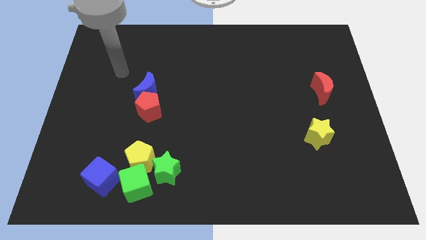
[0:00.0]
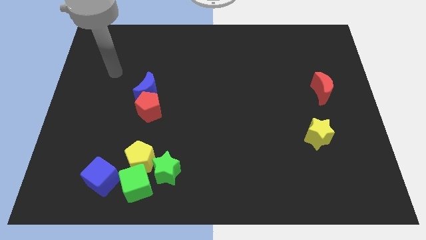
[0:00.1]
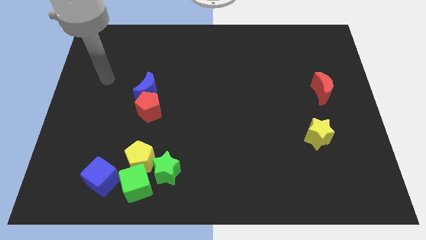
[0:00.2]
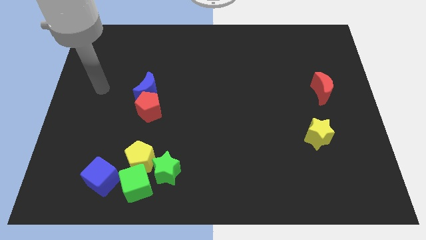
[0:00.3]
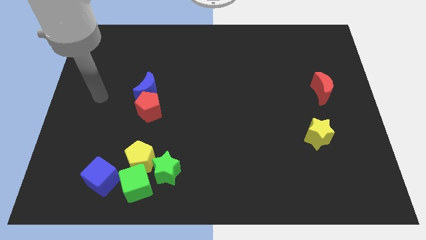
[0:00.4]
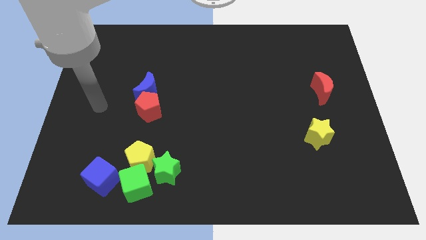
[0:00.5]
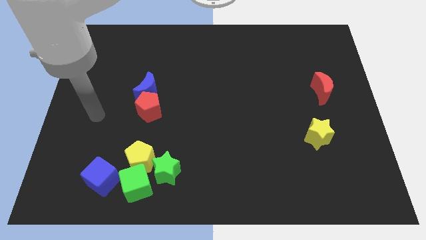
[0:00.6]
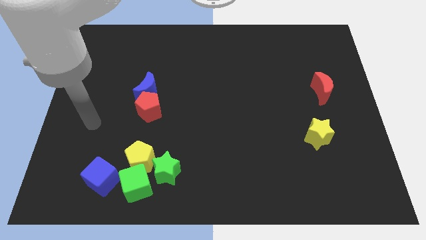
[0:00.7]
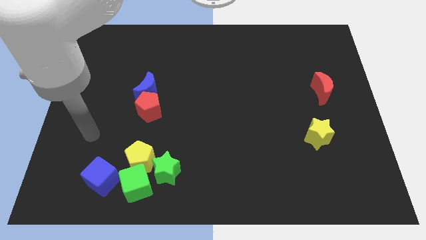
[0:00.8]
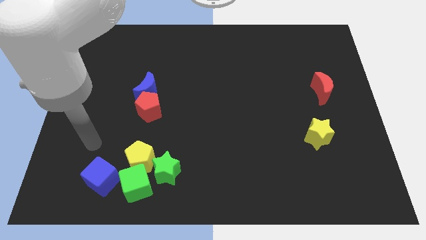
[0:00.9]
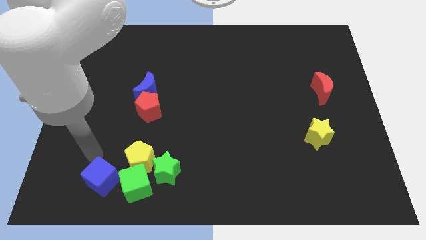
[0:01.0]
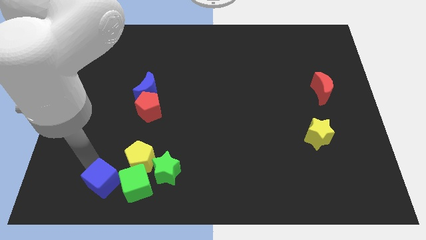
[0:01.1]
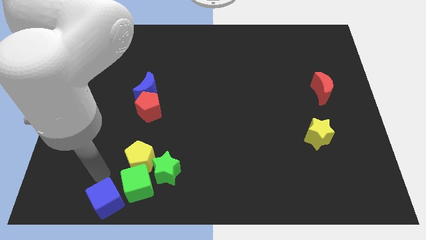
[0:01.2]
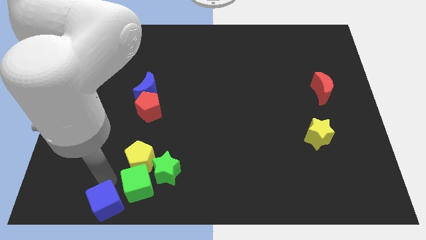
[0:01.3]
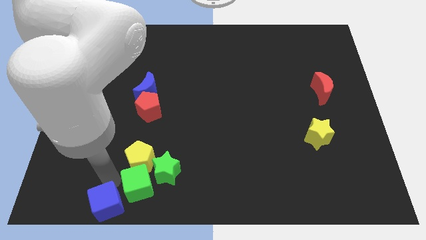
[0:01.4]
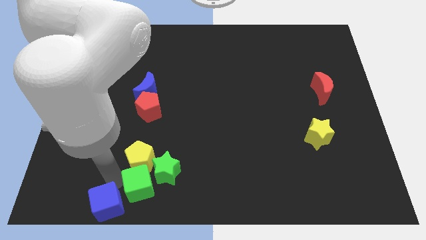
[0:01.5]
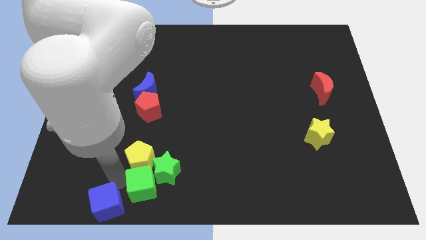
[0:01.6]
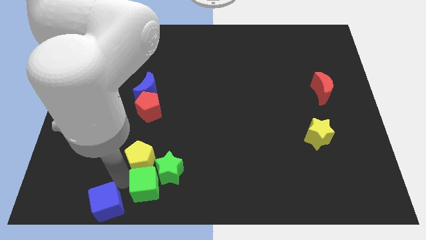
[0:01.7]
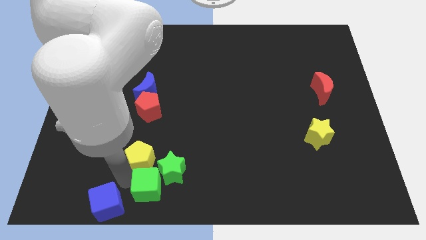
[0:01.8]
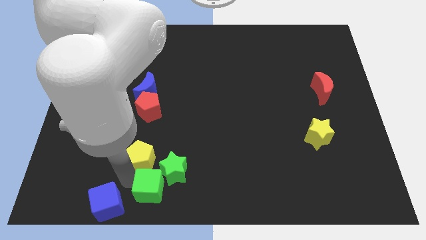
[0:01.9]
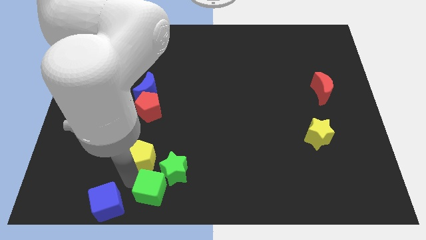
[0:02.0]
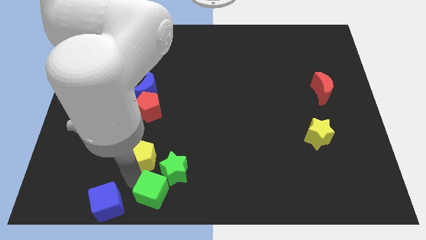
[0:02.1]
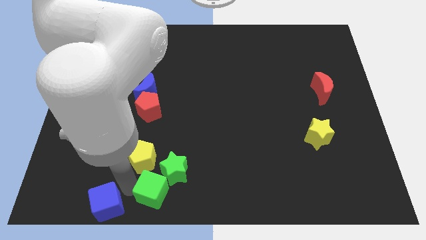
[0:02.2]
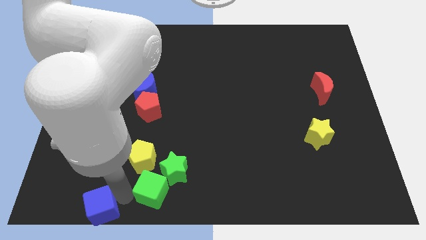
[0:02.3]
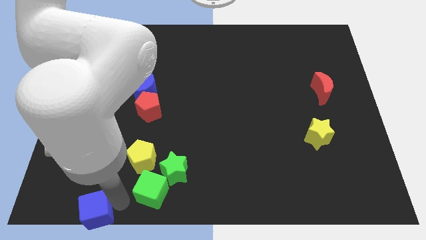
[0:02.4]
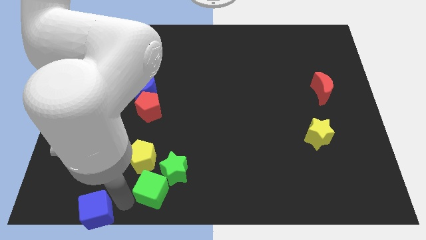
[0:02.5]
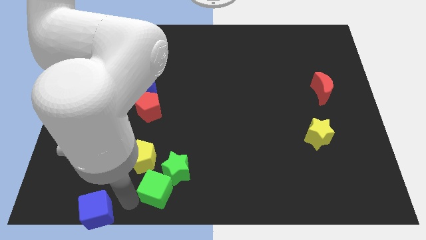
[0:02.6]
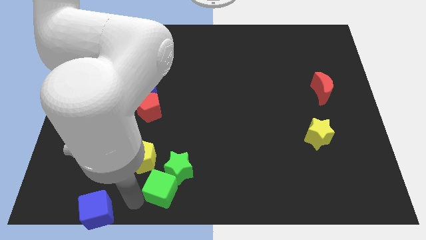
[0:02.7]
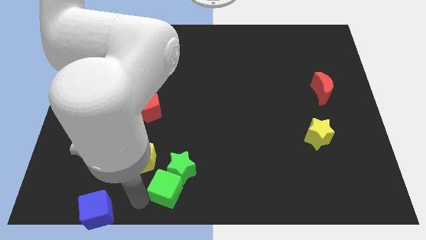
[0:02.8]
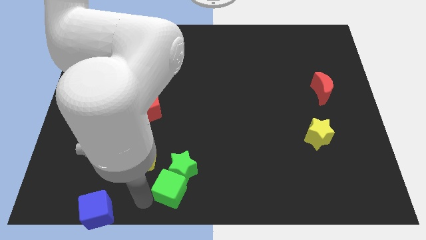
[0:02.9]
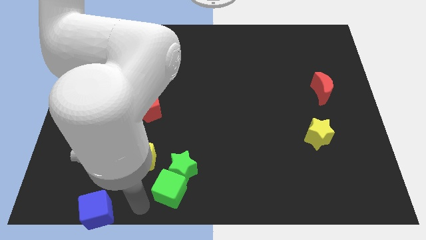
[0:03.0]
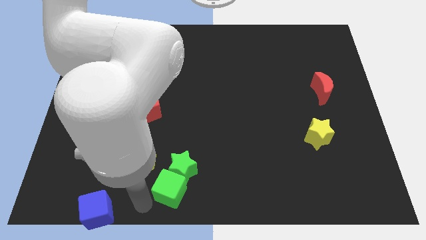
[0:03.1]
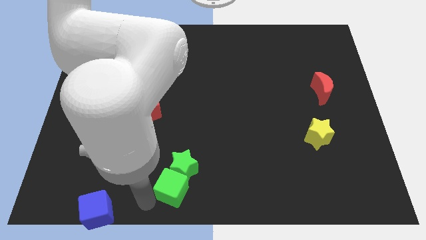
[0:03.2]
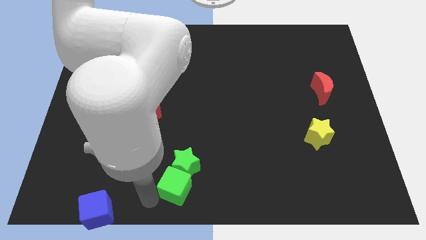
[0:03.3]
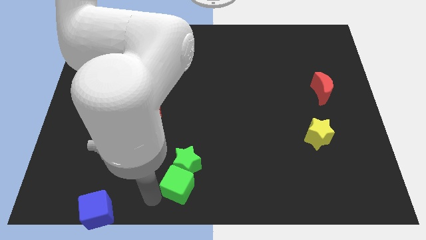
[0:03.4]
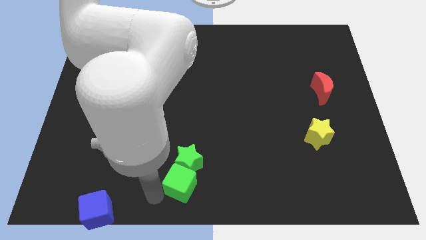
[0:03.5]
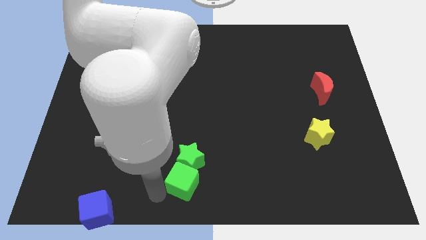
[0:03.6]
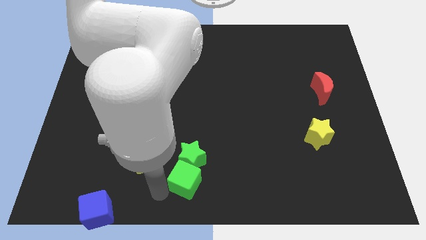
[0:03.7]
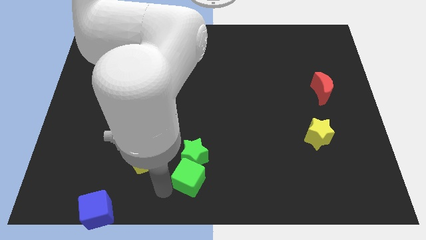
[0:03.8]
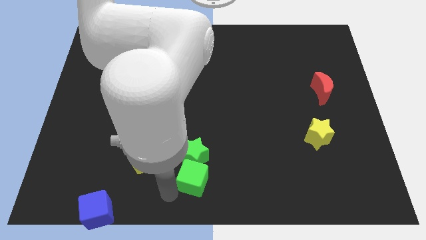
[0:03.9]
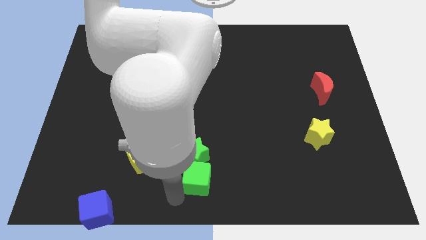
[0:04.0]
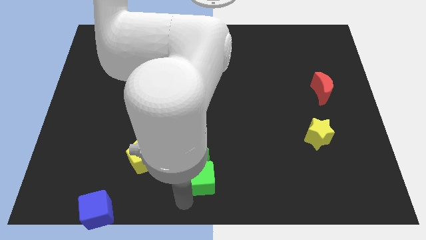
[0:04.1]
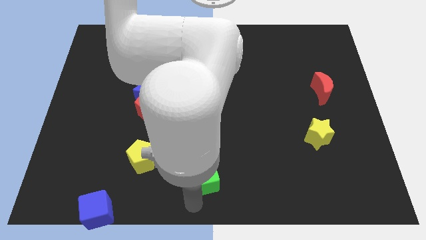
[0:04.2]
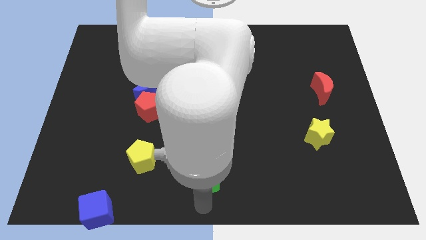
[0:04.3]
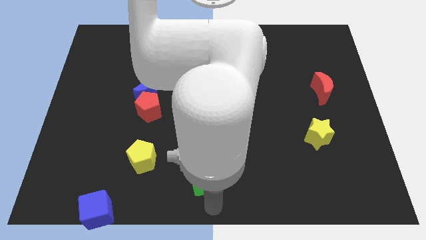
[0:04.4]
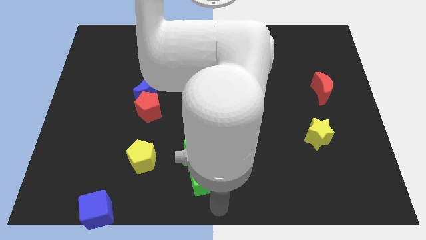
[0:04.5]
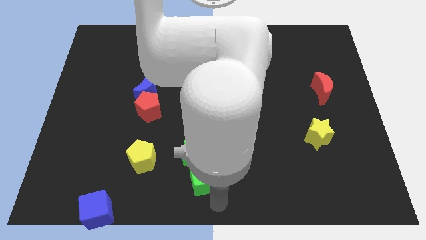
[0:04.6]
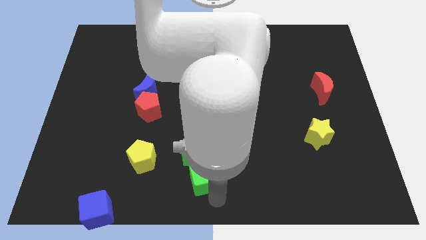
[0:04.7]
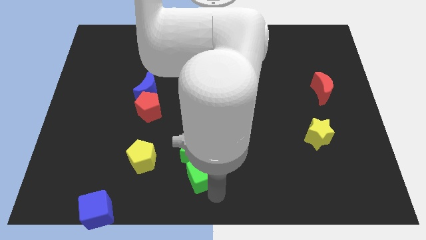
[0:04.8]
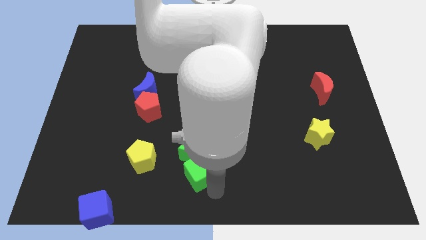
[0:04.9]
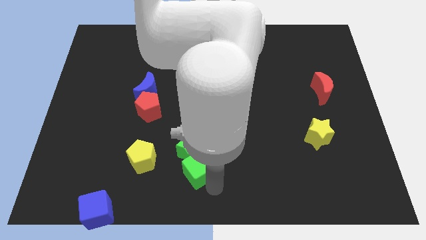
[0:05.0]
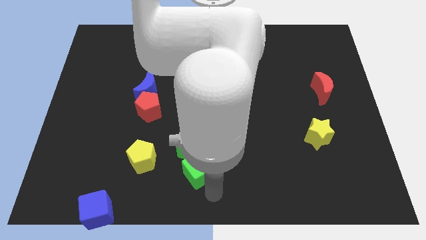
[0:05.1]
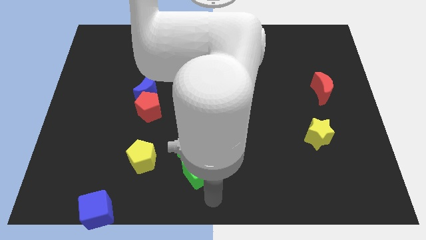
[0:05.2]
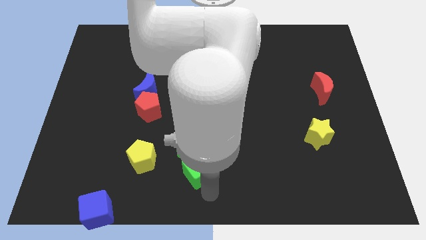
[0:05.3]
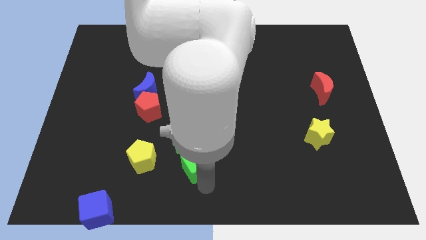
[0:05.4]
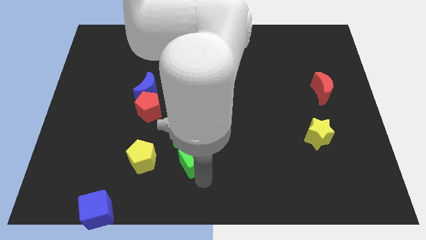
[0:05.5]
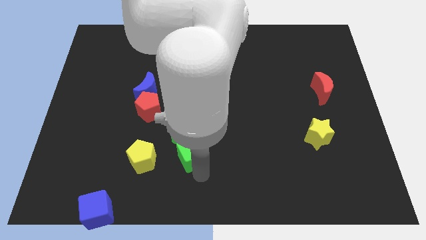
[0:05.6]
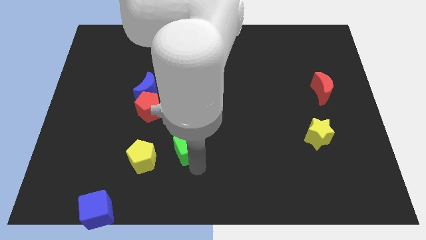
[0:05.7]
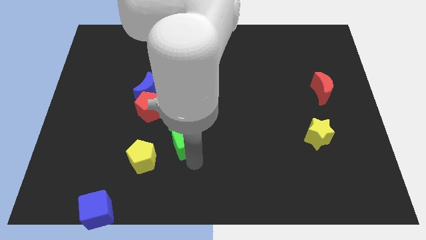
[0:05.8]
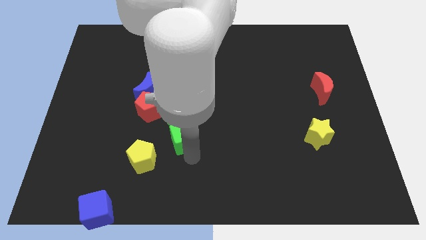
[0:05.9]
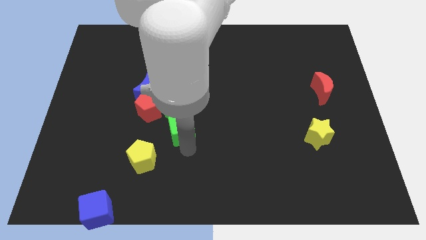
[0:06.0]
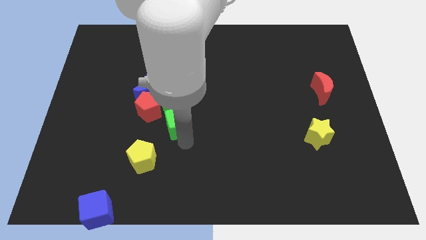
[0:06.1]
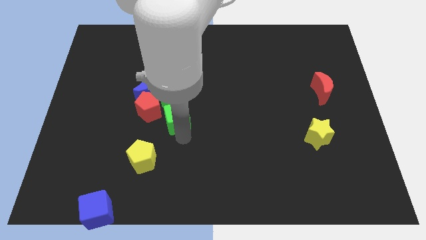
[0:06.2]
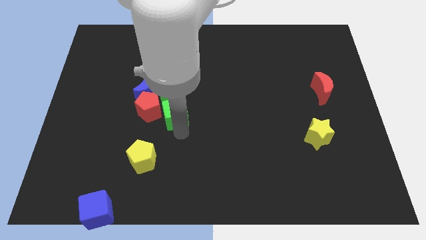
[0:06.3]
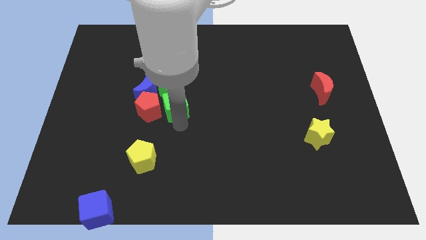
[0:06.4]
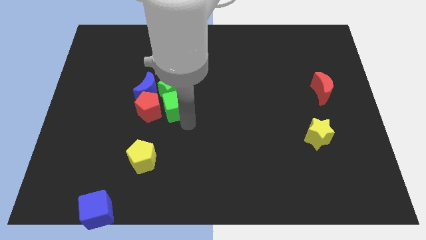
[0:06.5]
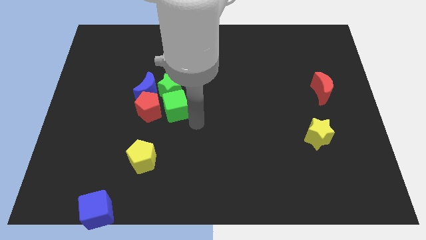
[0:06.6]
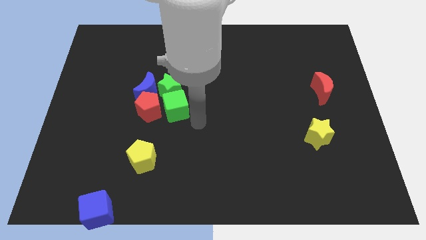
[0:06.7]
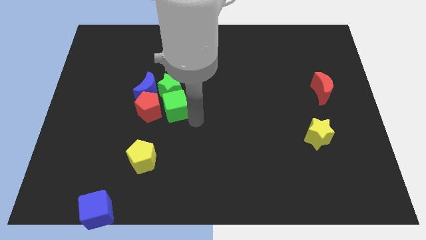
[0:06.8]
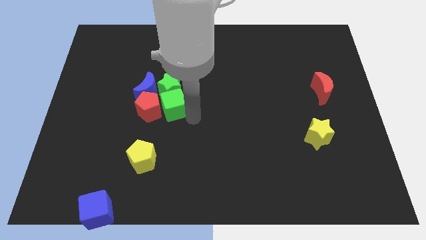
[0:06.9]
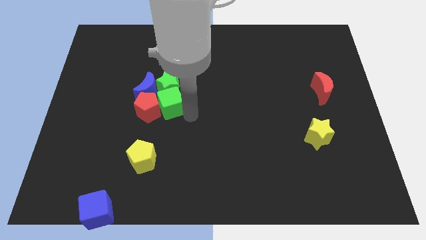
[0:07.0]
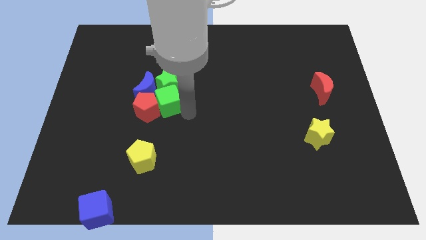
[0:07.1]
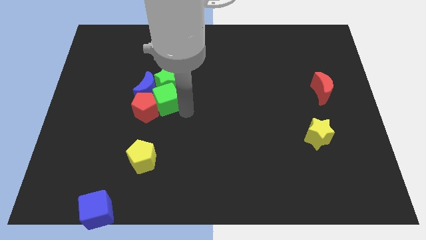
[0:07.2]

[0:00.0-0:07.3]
slide the green cube towards the blue moon
